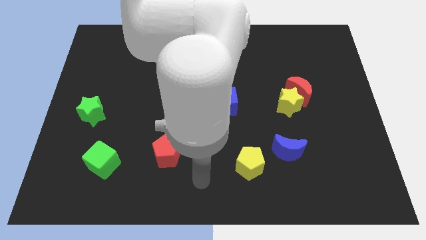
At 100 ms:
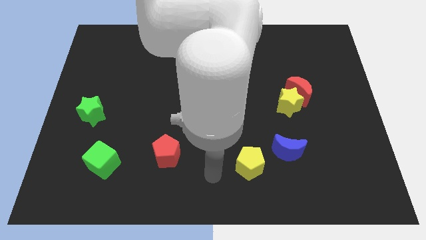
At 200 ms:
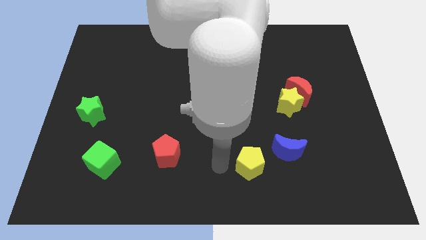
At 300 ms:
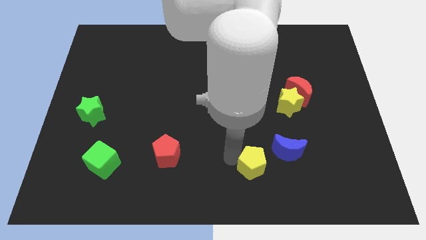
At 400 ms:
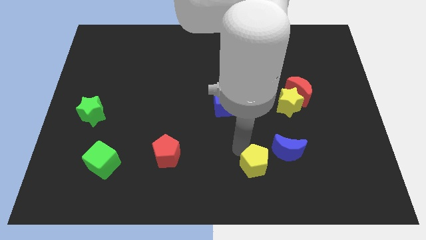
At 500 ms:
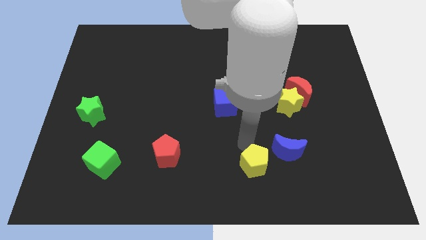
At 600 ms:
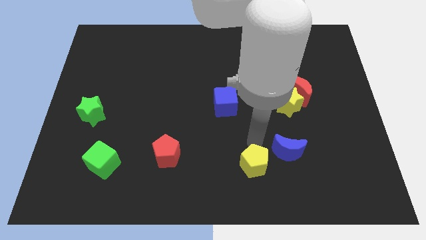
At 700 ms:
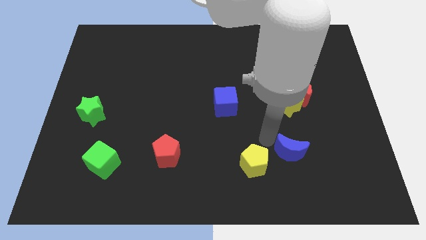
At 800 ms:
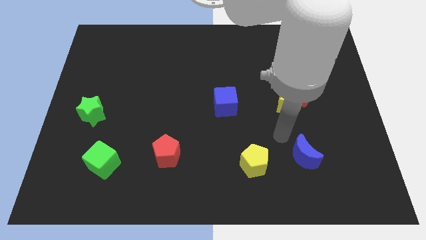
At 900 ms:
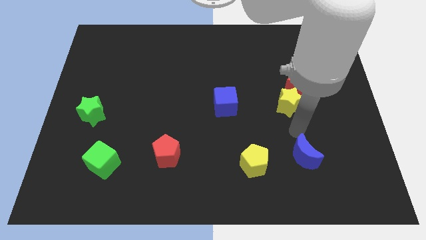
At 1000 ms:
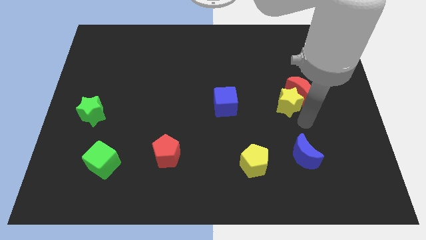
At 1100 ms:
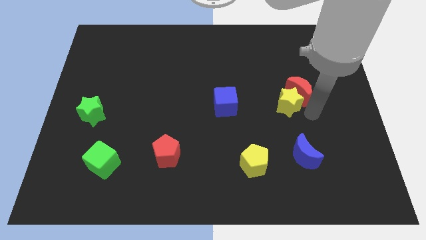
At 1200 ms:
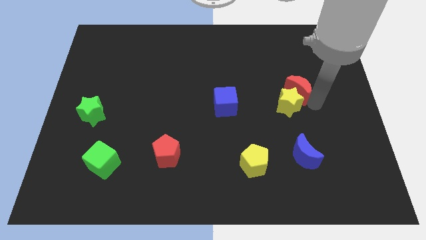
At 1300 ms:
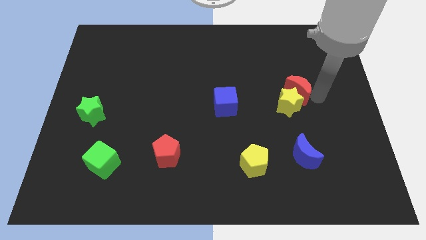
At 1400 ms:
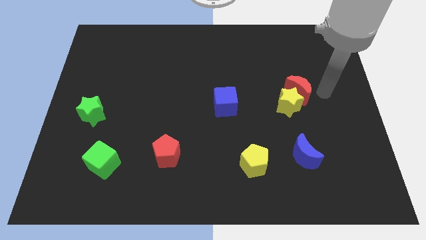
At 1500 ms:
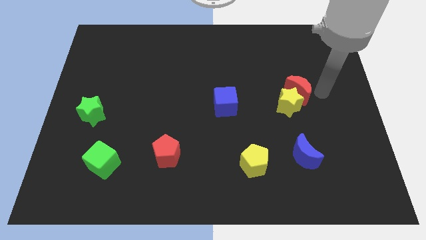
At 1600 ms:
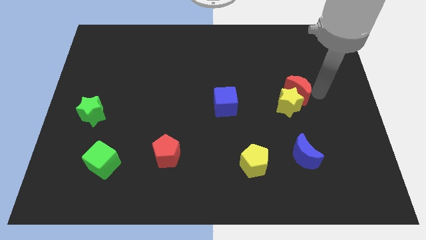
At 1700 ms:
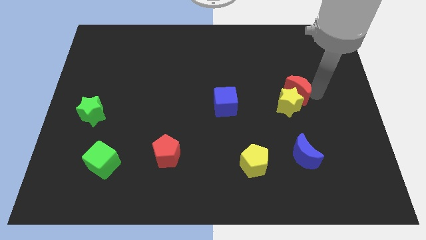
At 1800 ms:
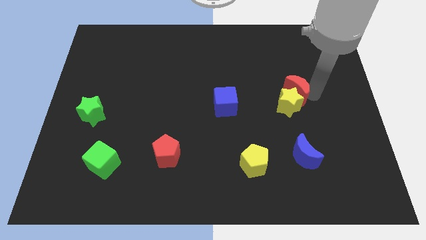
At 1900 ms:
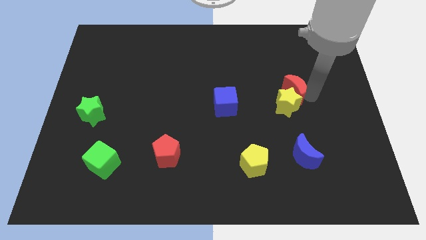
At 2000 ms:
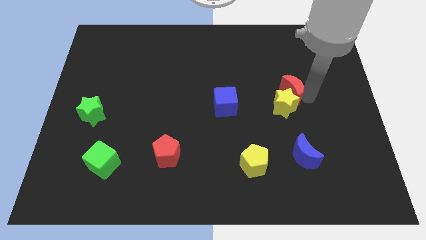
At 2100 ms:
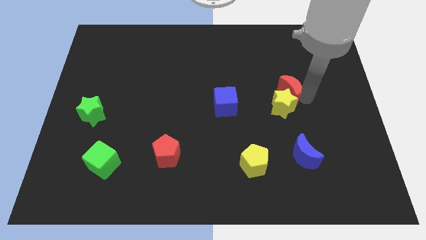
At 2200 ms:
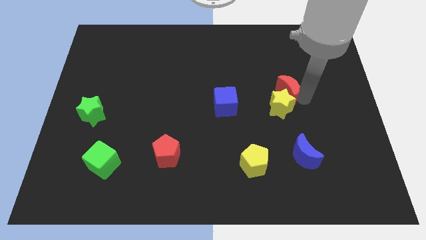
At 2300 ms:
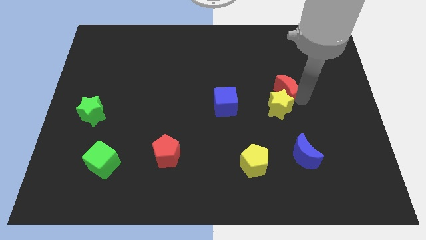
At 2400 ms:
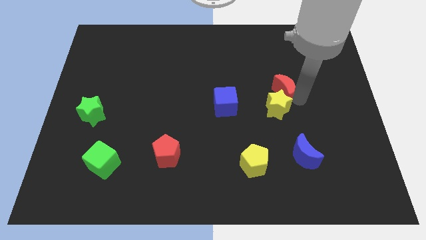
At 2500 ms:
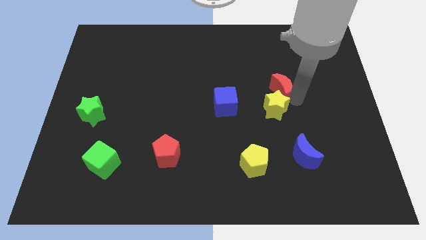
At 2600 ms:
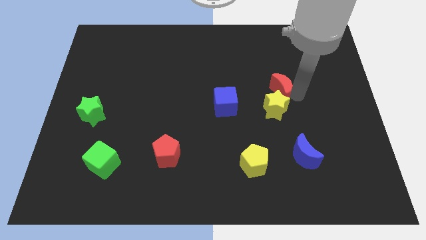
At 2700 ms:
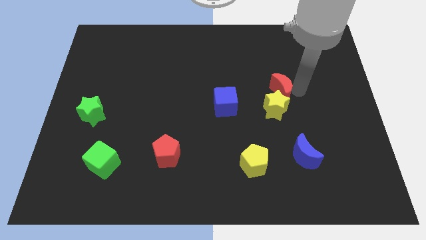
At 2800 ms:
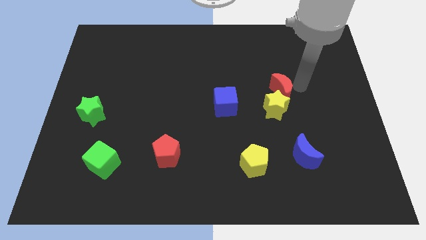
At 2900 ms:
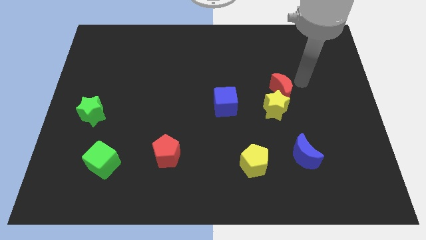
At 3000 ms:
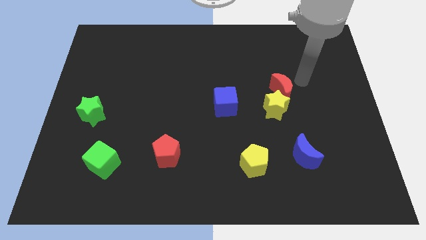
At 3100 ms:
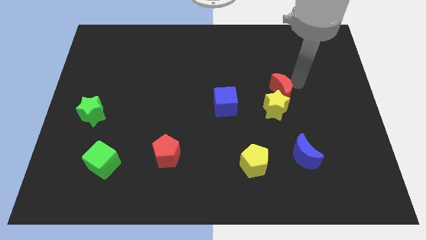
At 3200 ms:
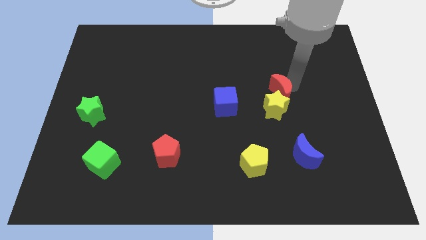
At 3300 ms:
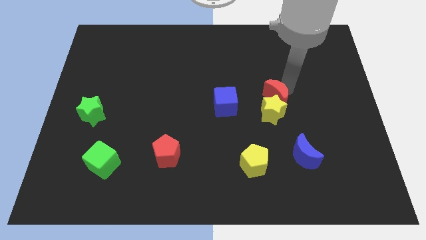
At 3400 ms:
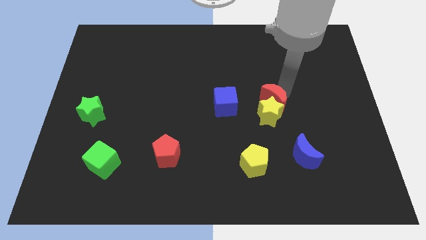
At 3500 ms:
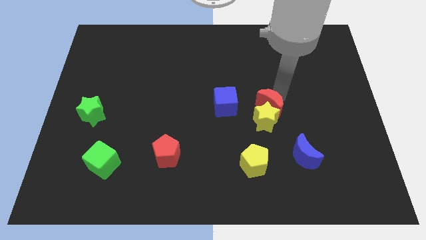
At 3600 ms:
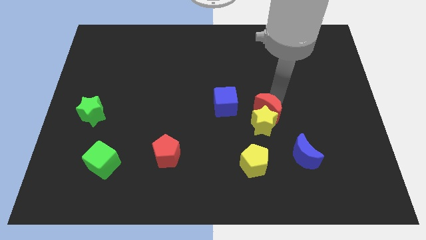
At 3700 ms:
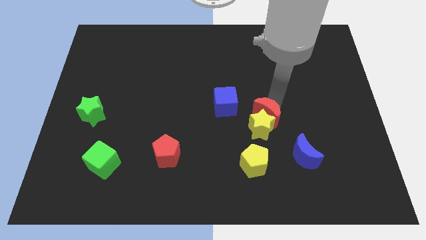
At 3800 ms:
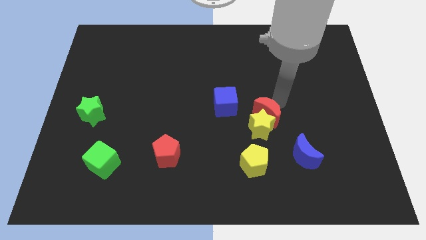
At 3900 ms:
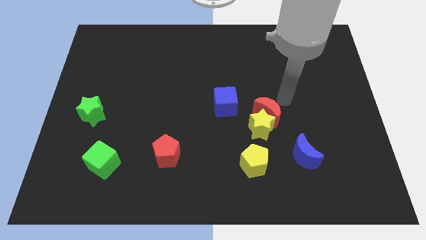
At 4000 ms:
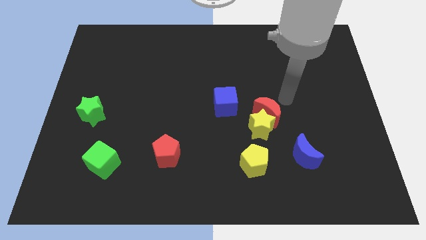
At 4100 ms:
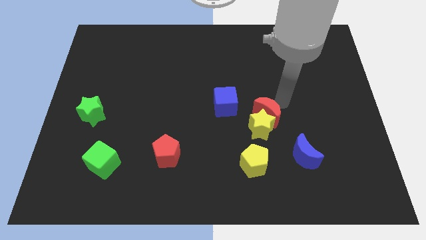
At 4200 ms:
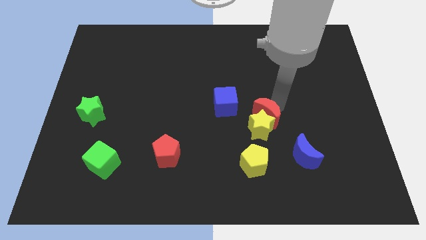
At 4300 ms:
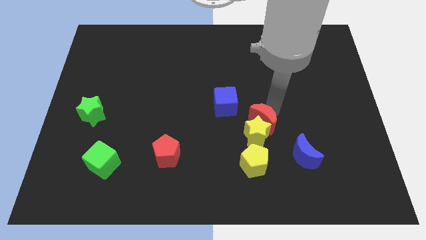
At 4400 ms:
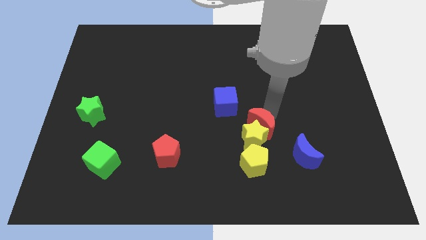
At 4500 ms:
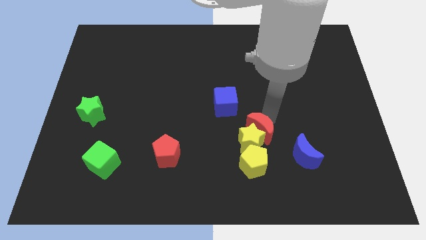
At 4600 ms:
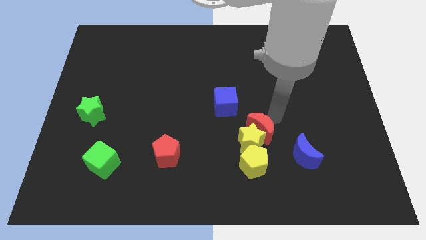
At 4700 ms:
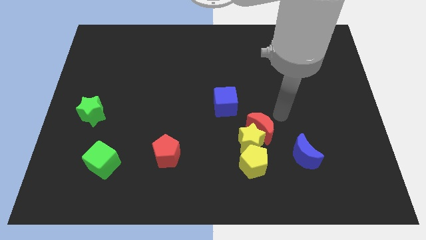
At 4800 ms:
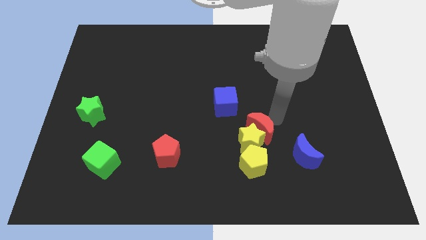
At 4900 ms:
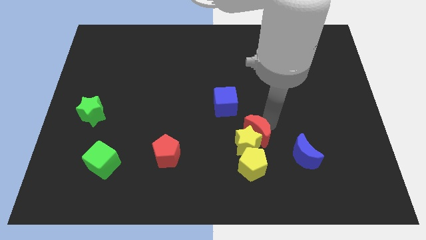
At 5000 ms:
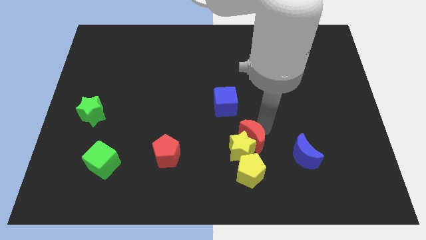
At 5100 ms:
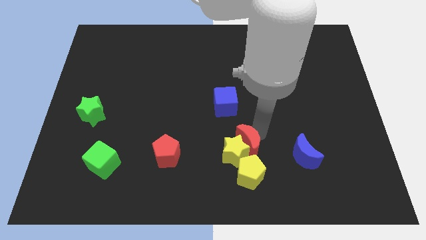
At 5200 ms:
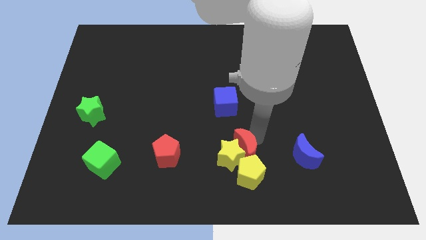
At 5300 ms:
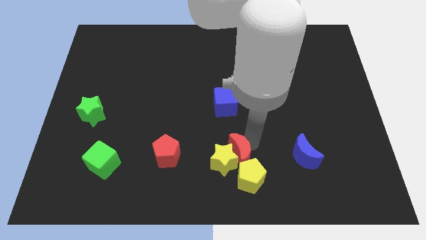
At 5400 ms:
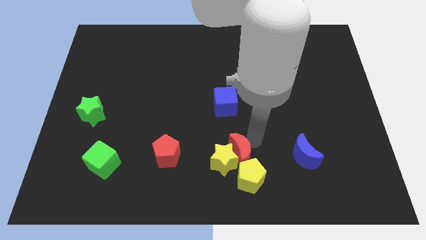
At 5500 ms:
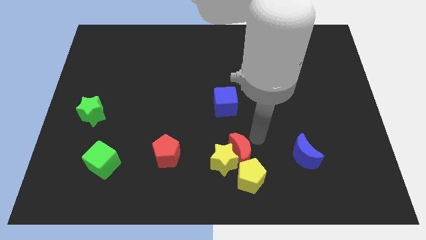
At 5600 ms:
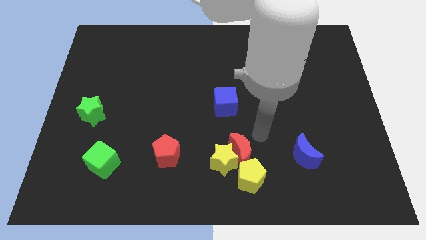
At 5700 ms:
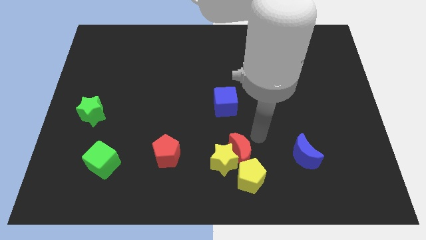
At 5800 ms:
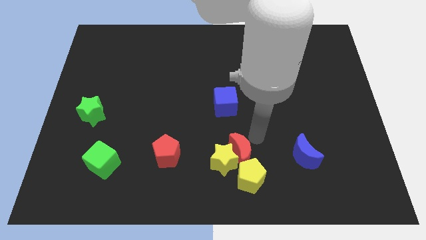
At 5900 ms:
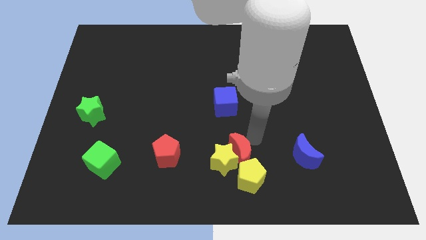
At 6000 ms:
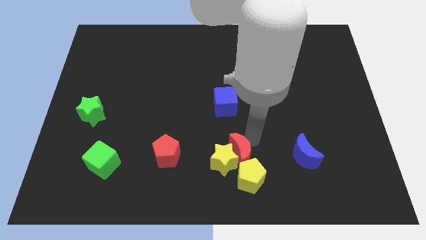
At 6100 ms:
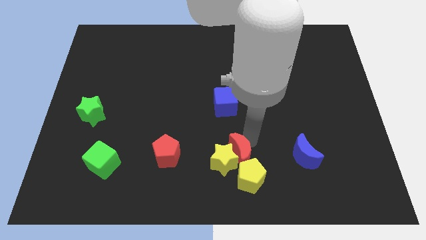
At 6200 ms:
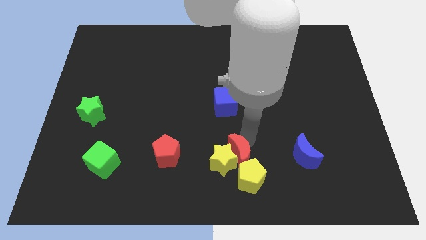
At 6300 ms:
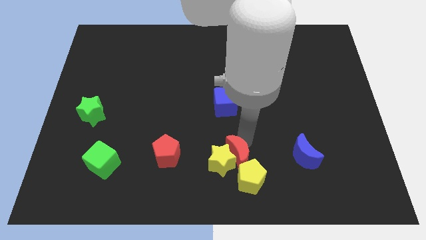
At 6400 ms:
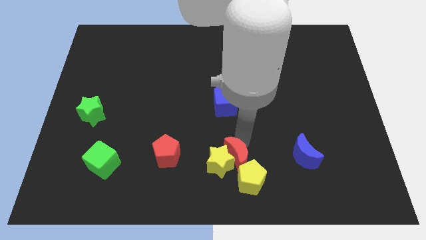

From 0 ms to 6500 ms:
move the red moon to the bottom side

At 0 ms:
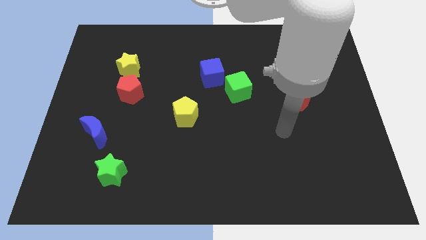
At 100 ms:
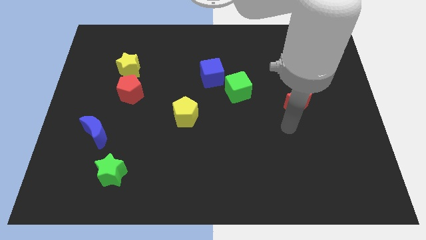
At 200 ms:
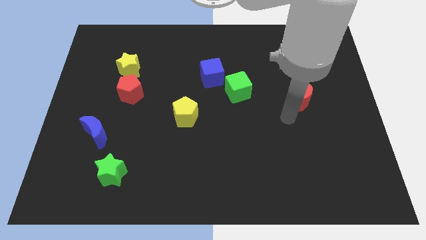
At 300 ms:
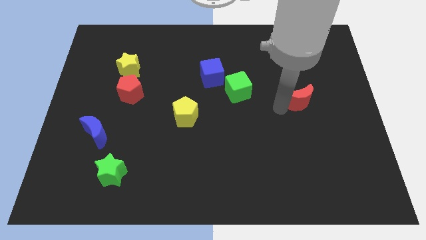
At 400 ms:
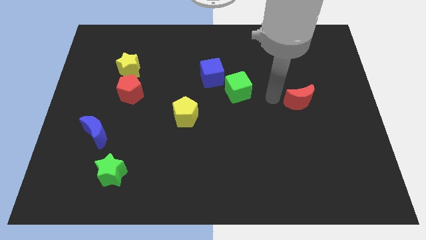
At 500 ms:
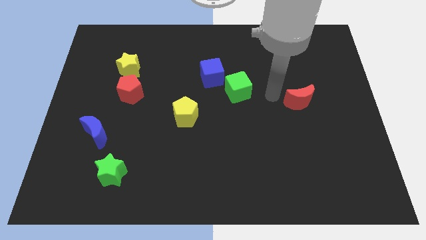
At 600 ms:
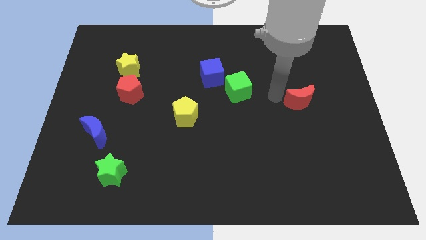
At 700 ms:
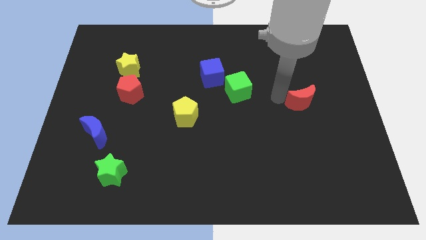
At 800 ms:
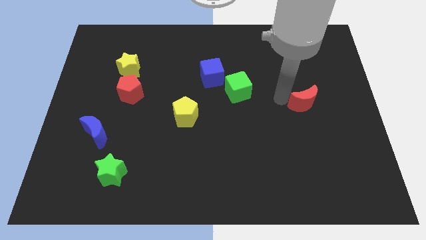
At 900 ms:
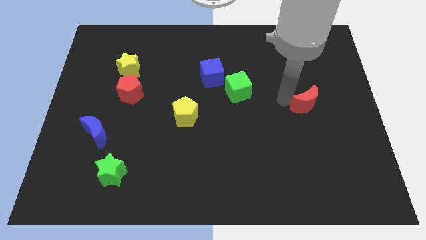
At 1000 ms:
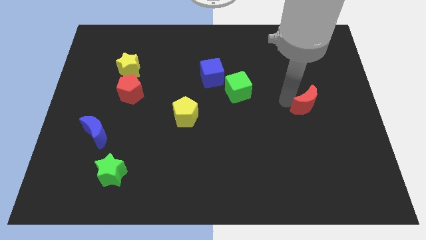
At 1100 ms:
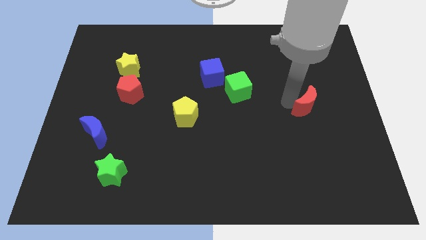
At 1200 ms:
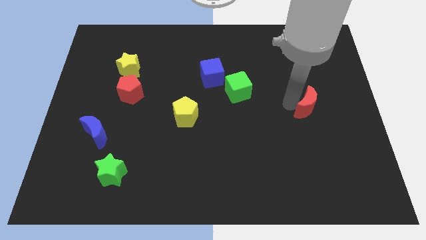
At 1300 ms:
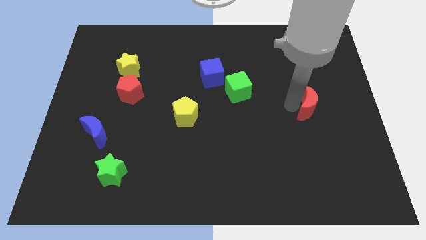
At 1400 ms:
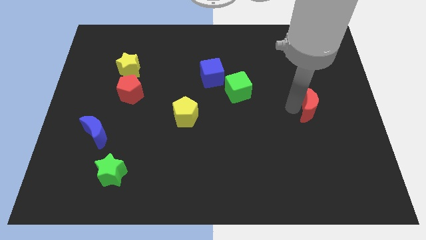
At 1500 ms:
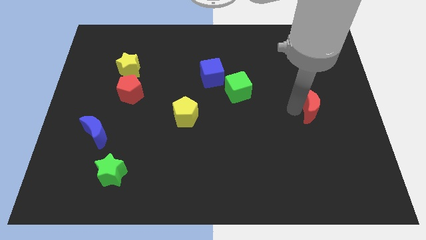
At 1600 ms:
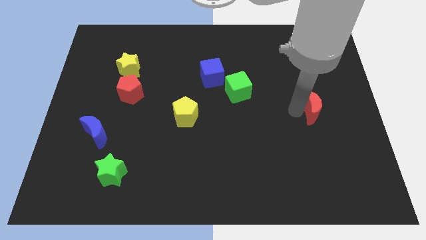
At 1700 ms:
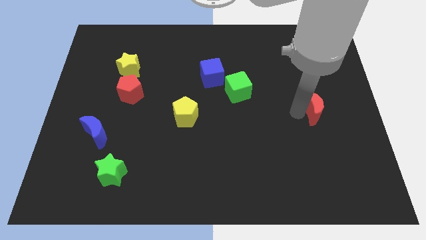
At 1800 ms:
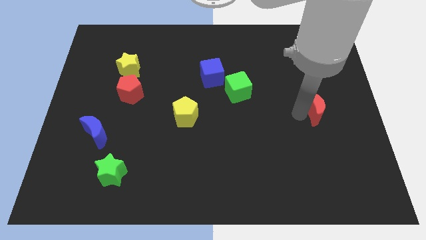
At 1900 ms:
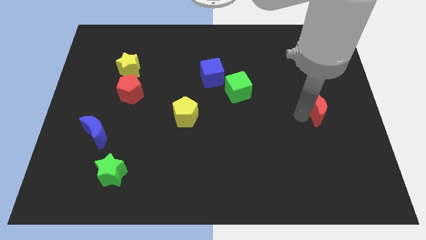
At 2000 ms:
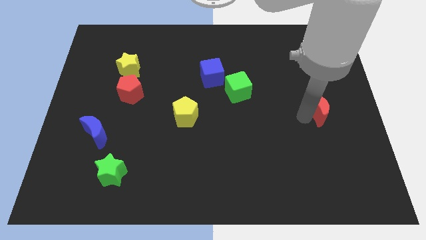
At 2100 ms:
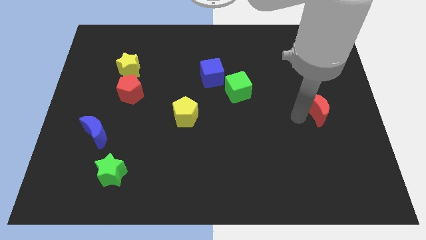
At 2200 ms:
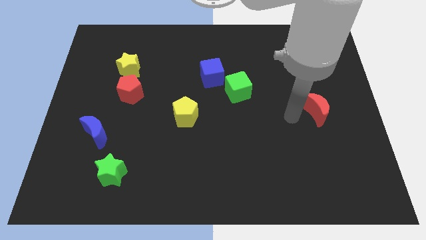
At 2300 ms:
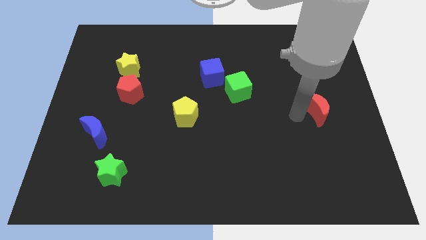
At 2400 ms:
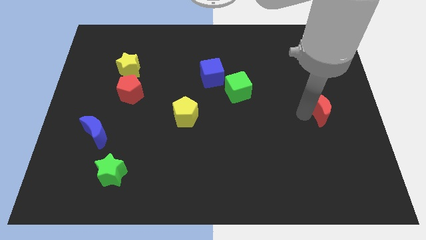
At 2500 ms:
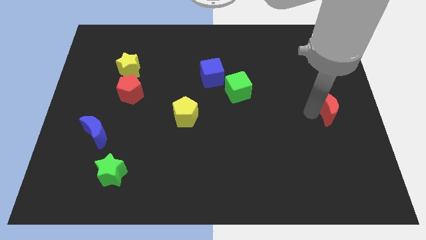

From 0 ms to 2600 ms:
move the red moon to the right side
